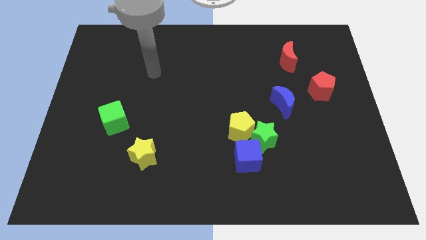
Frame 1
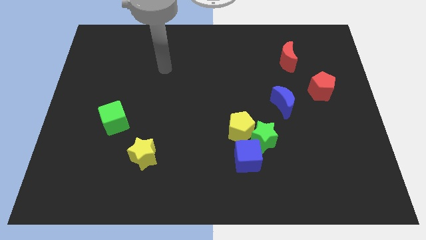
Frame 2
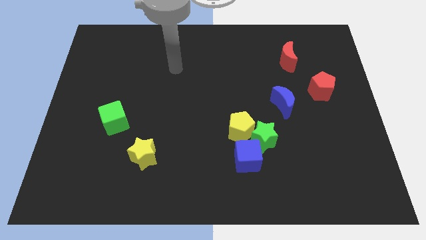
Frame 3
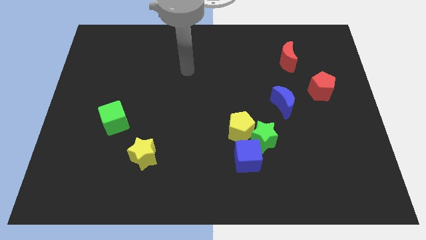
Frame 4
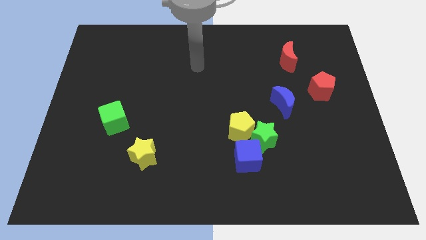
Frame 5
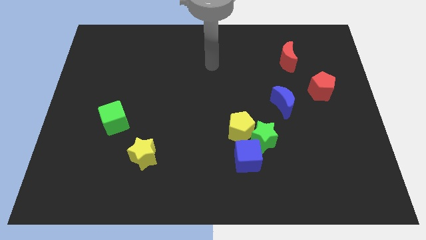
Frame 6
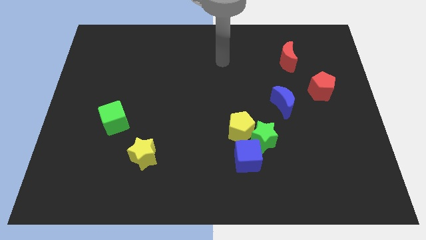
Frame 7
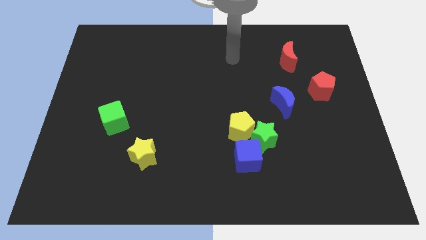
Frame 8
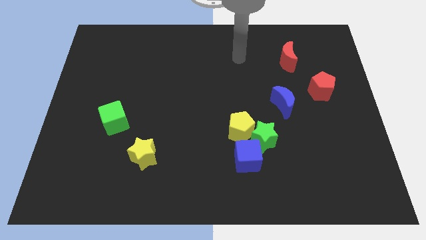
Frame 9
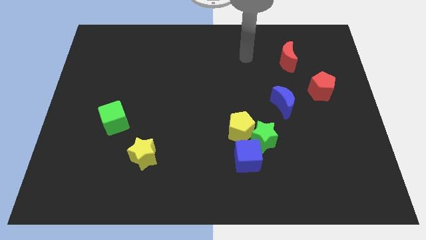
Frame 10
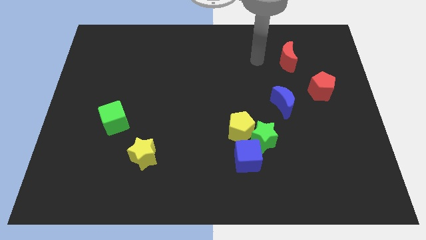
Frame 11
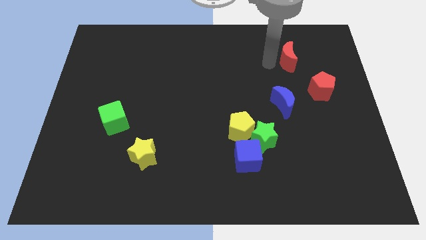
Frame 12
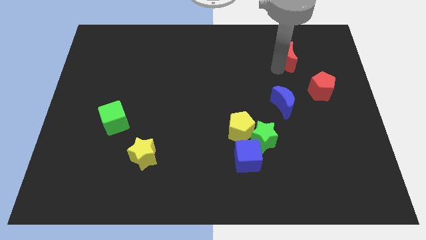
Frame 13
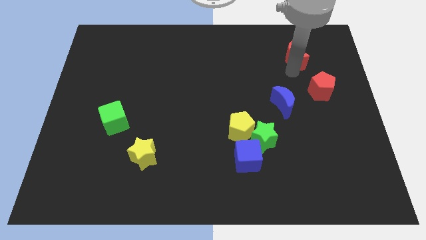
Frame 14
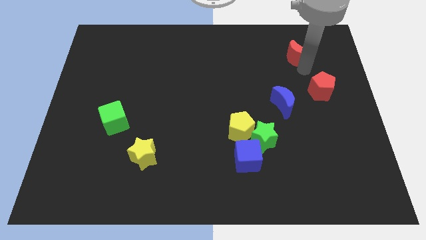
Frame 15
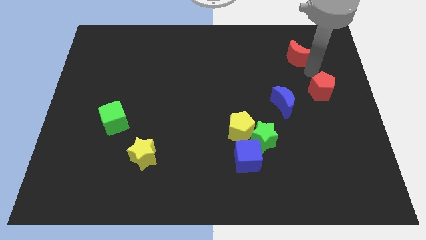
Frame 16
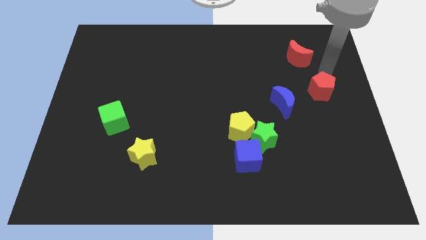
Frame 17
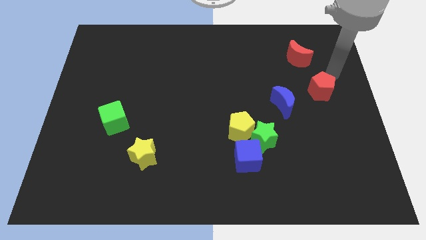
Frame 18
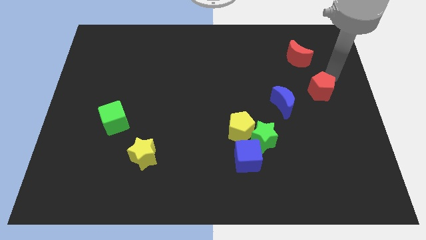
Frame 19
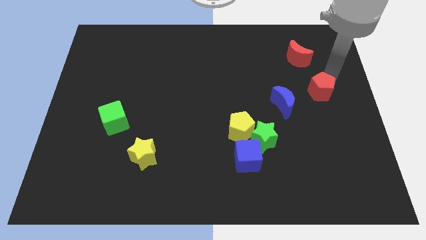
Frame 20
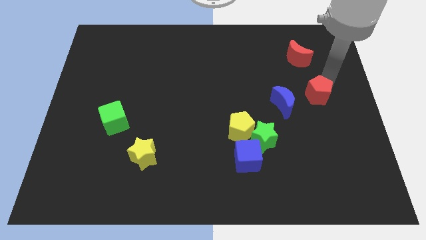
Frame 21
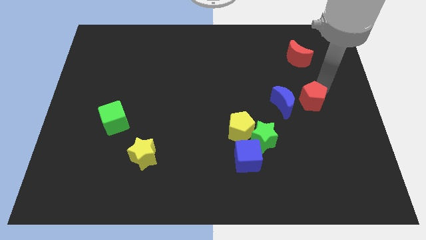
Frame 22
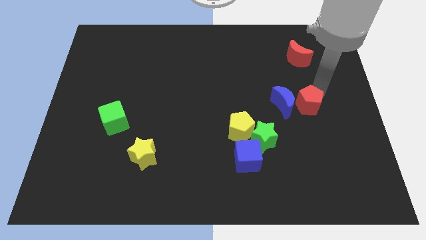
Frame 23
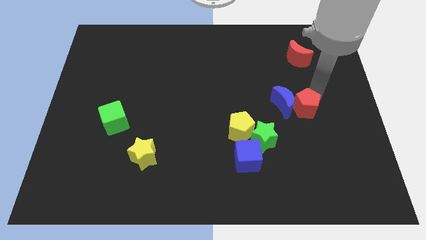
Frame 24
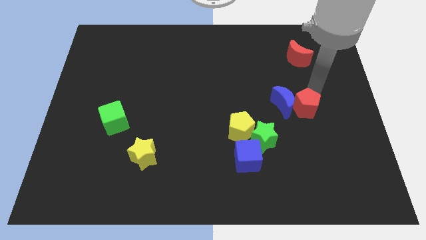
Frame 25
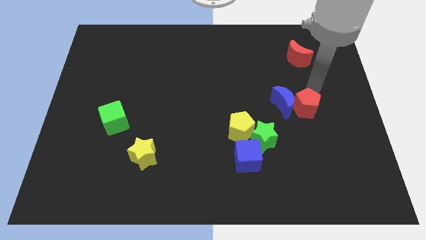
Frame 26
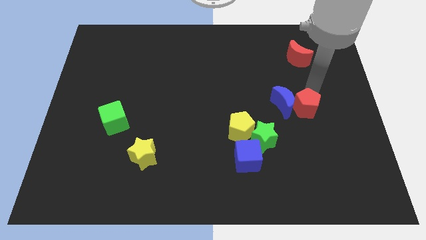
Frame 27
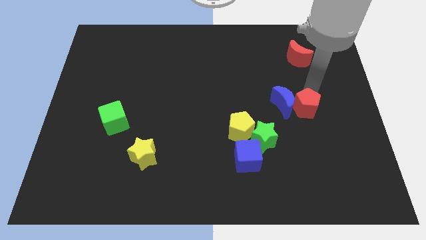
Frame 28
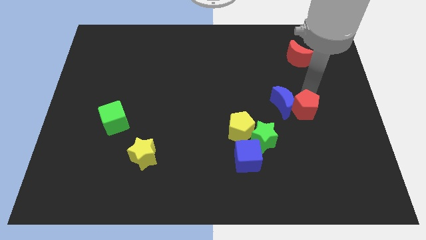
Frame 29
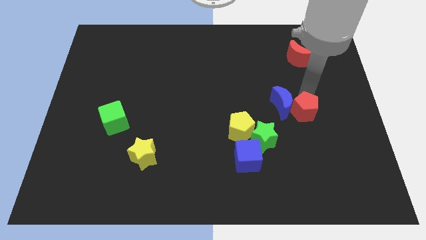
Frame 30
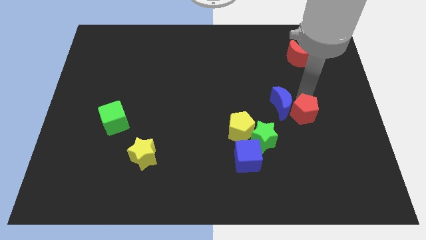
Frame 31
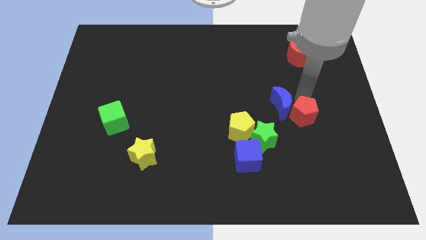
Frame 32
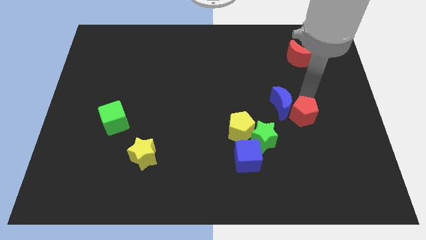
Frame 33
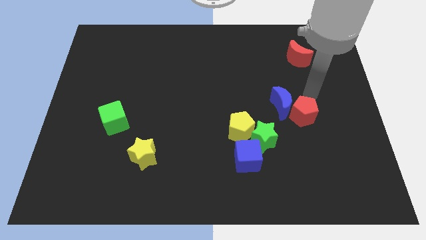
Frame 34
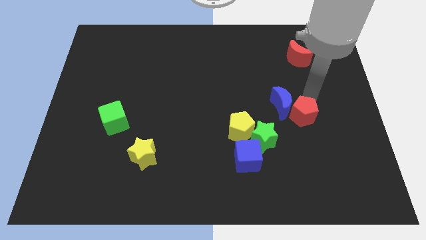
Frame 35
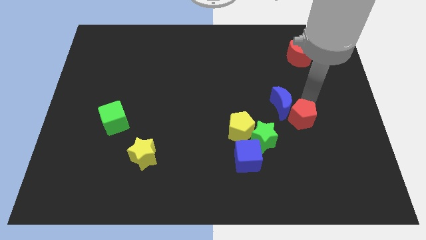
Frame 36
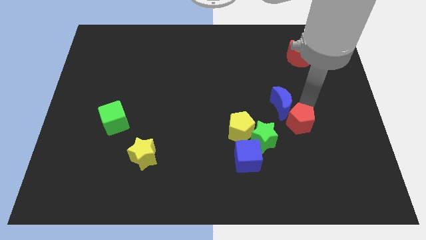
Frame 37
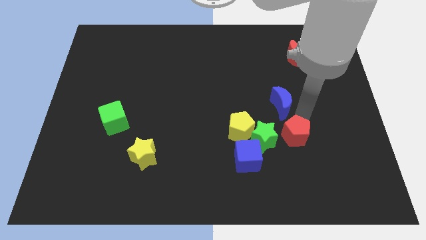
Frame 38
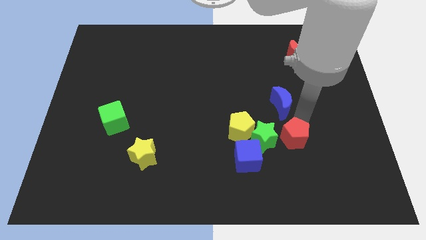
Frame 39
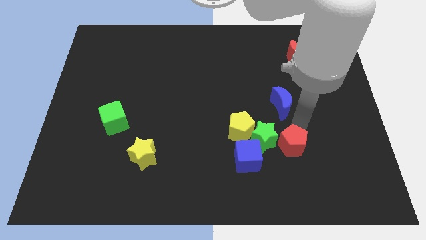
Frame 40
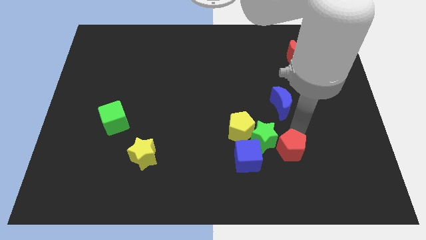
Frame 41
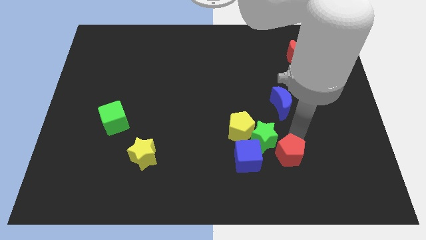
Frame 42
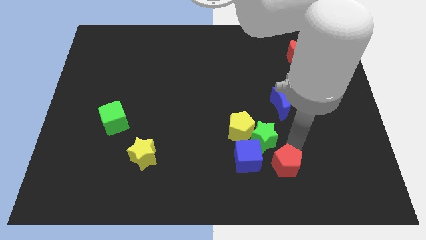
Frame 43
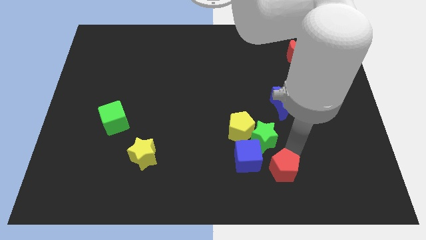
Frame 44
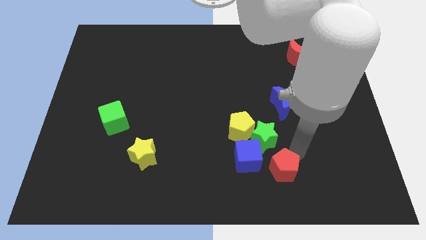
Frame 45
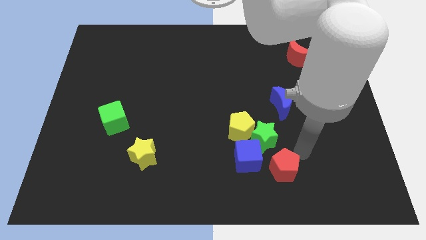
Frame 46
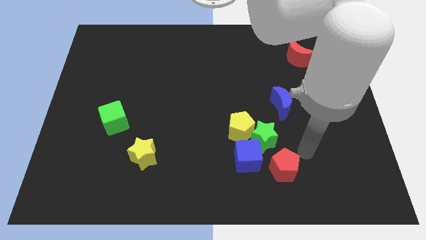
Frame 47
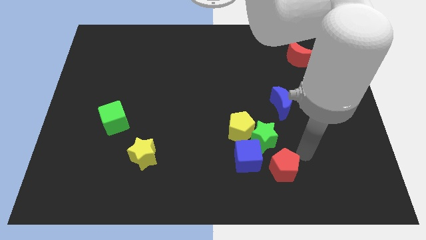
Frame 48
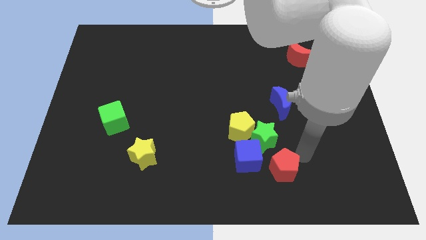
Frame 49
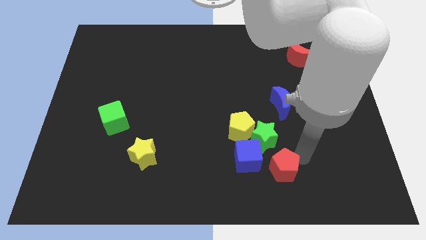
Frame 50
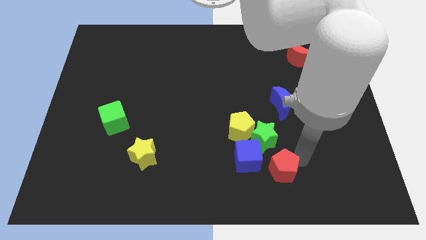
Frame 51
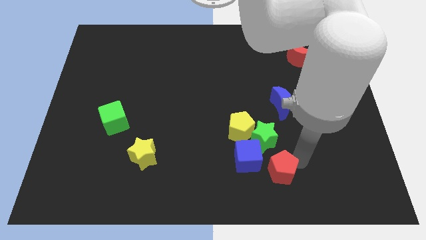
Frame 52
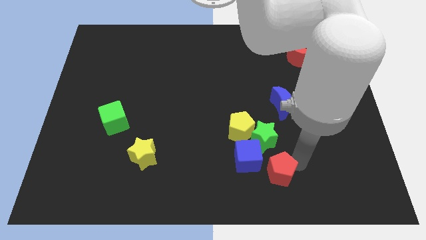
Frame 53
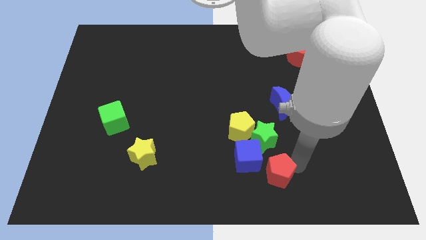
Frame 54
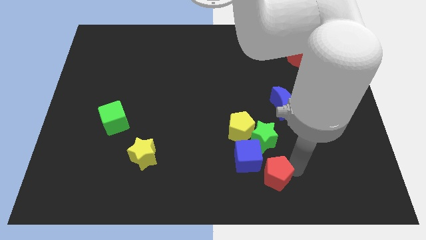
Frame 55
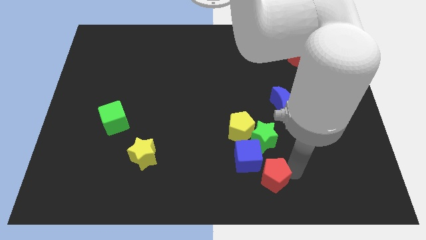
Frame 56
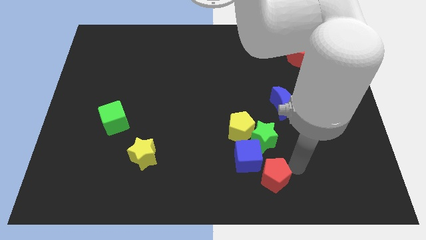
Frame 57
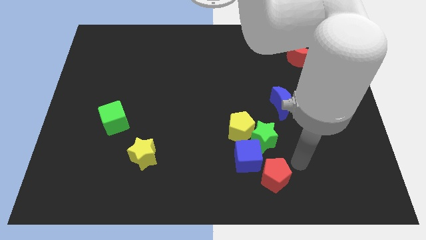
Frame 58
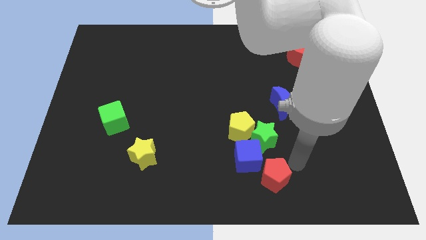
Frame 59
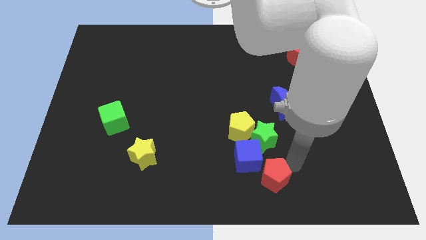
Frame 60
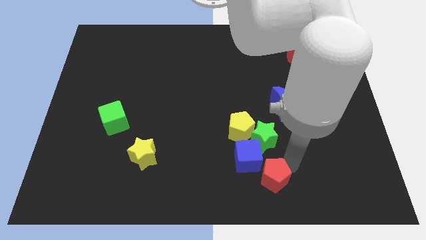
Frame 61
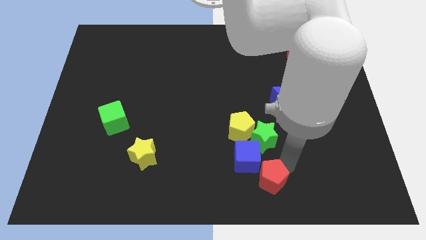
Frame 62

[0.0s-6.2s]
slide the red pentagon to the bottom side

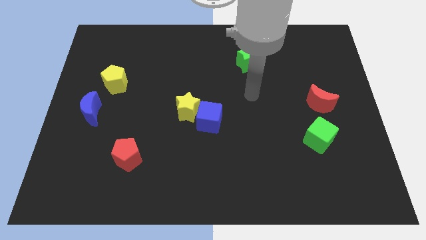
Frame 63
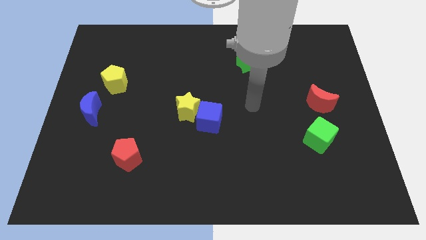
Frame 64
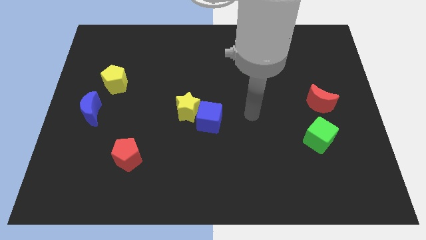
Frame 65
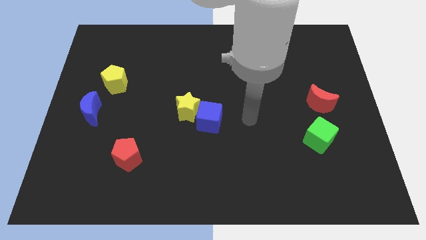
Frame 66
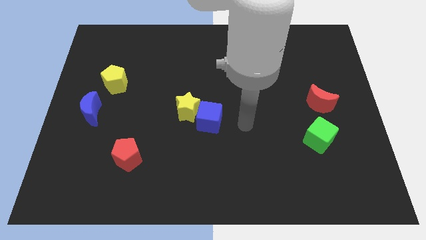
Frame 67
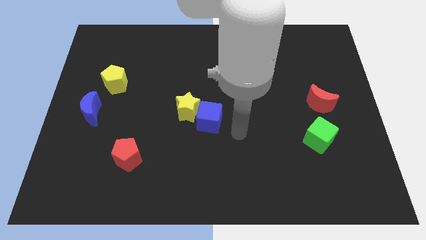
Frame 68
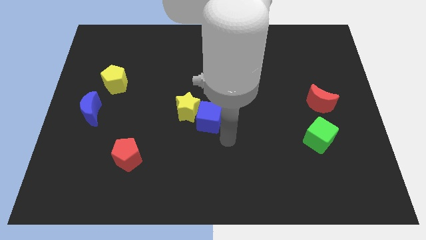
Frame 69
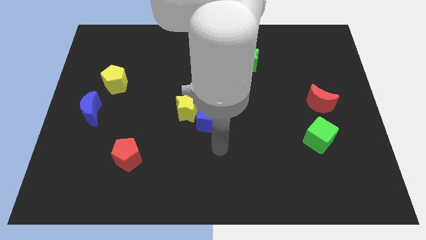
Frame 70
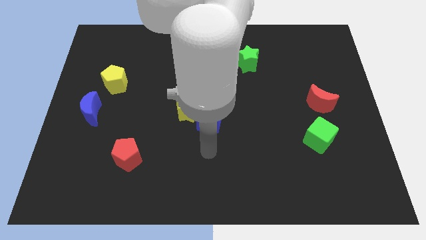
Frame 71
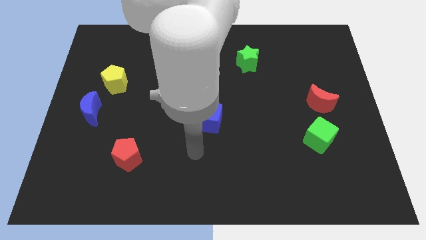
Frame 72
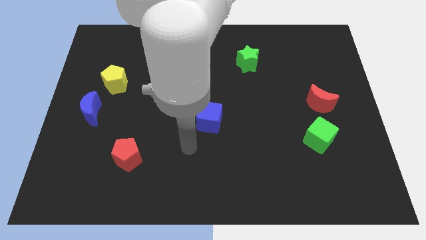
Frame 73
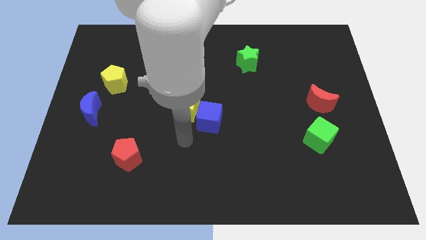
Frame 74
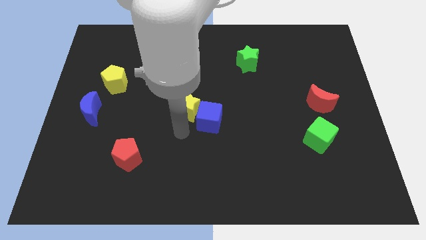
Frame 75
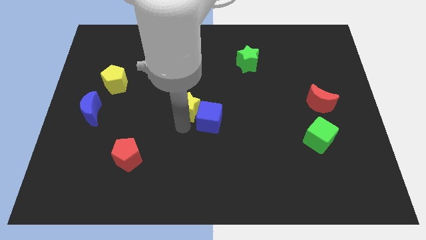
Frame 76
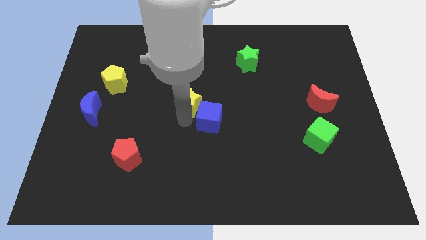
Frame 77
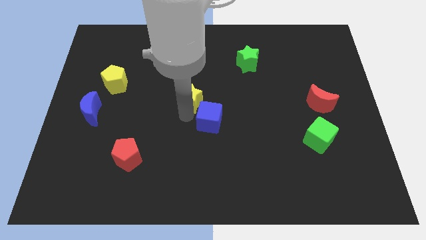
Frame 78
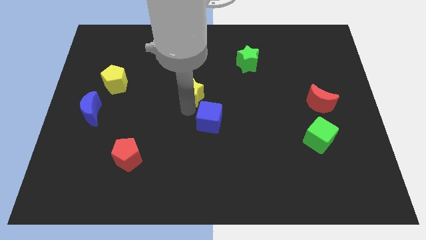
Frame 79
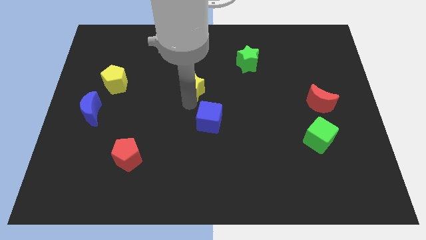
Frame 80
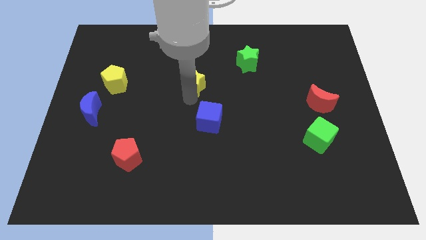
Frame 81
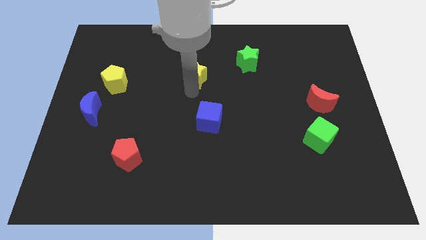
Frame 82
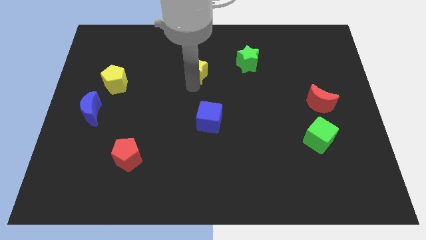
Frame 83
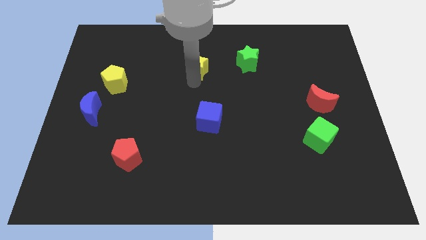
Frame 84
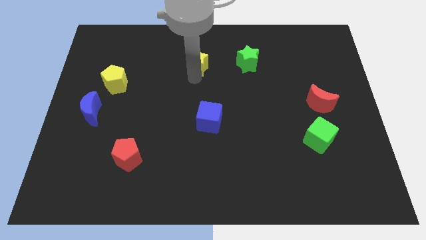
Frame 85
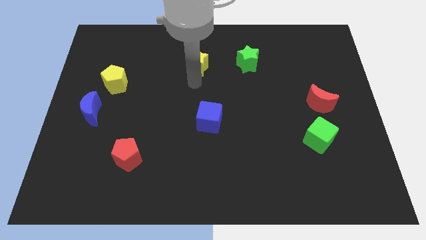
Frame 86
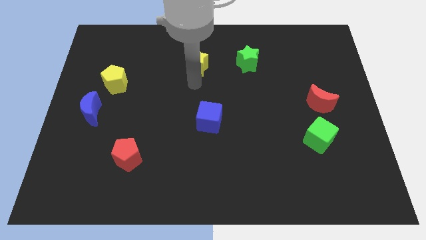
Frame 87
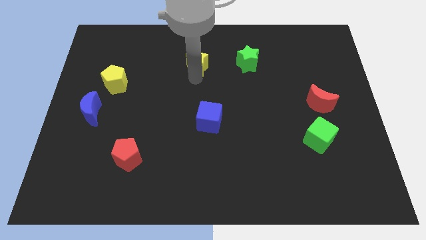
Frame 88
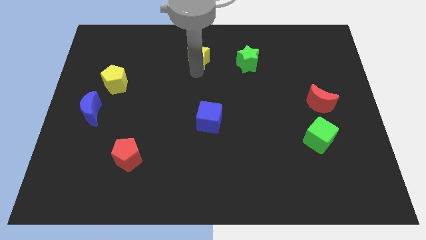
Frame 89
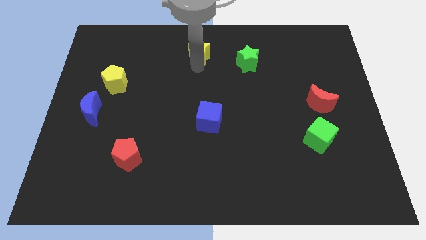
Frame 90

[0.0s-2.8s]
slide the yellow star to the towards your base
